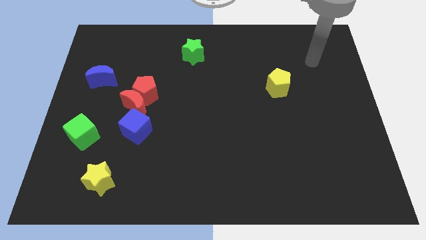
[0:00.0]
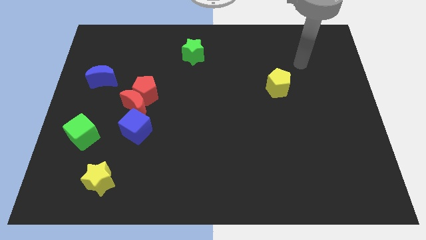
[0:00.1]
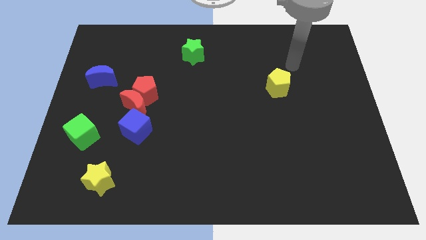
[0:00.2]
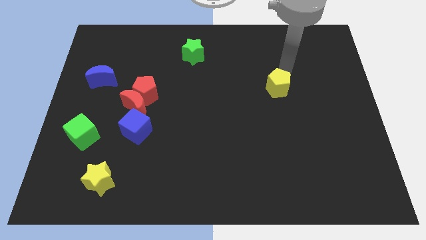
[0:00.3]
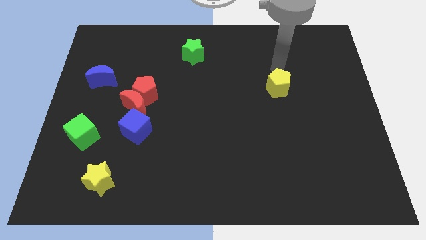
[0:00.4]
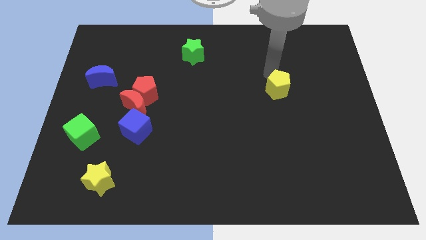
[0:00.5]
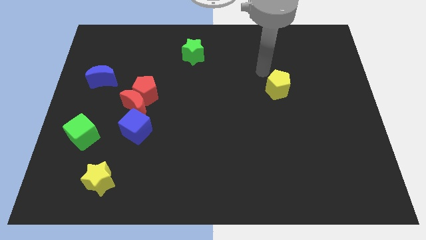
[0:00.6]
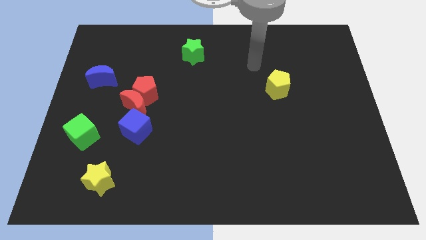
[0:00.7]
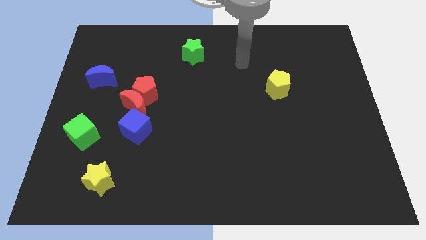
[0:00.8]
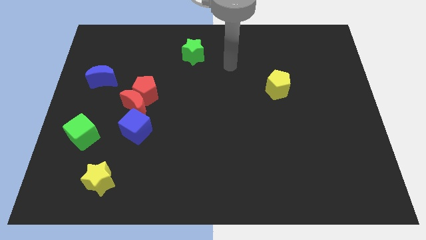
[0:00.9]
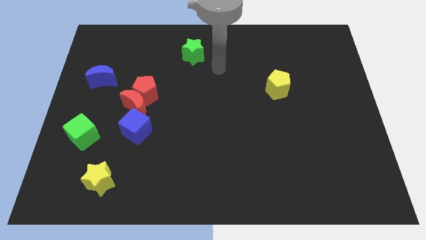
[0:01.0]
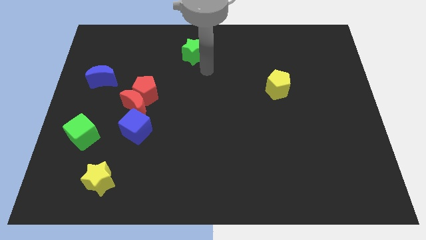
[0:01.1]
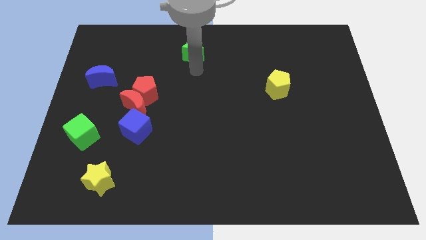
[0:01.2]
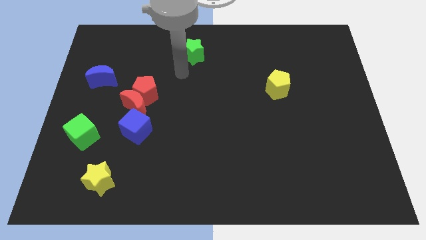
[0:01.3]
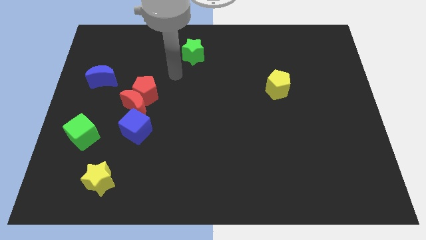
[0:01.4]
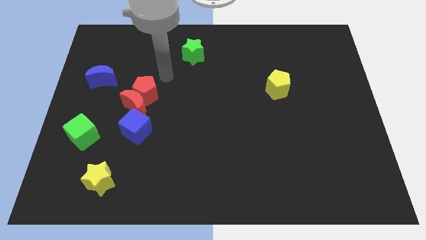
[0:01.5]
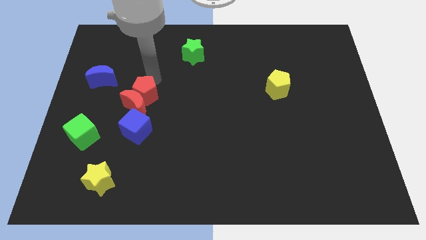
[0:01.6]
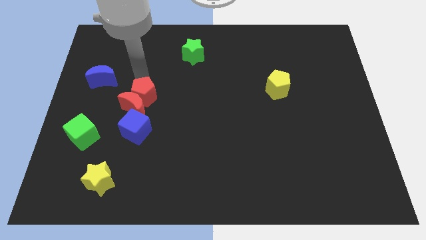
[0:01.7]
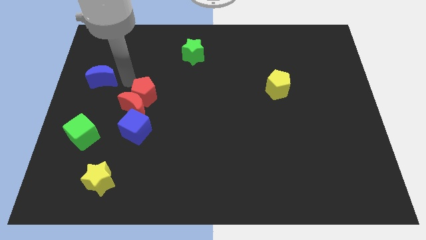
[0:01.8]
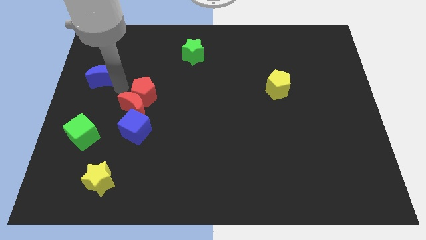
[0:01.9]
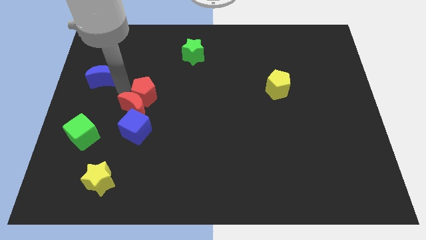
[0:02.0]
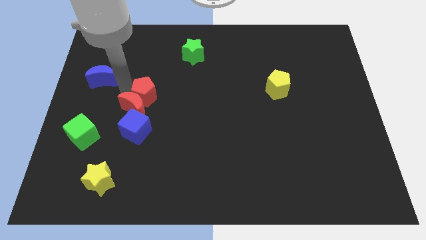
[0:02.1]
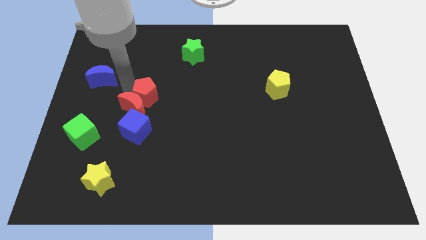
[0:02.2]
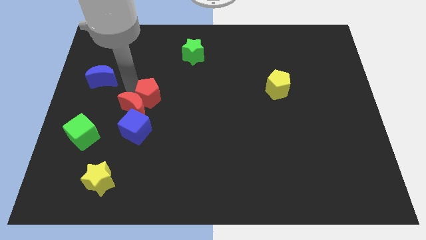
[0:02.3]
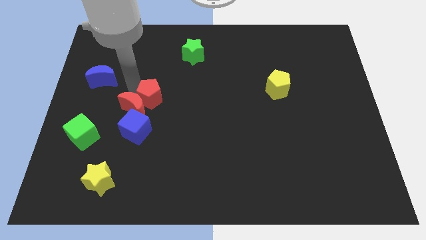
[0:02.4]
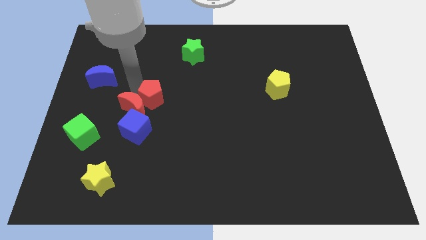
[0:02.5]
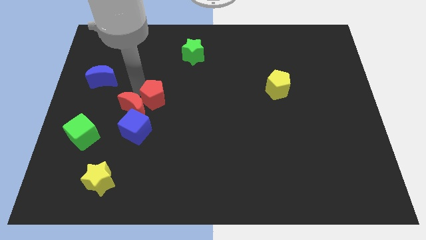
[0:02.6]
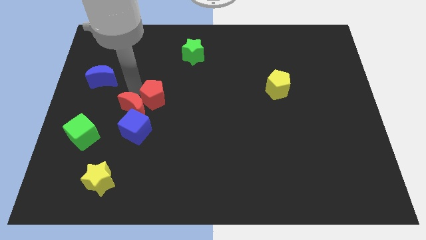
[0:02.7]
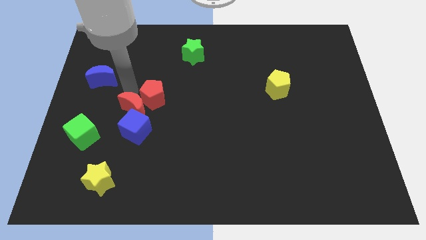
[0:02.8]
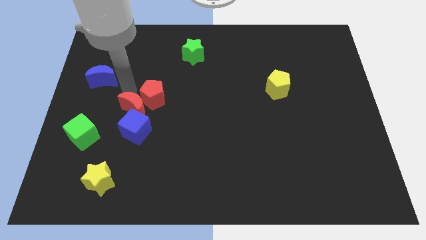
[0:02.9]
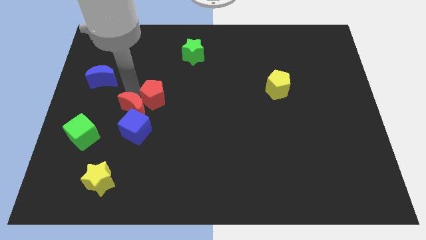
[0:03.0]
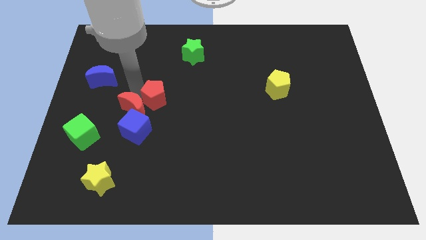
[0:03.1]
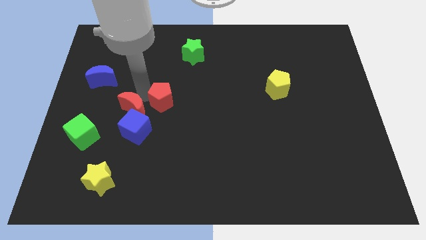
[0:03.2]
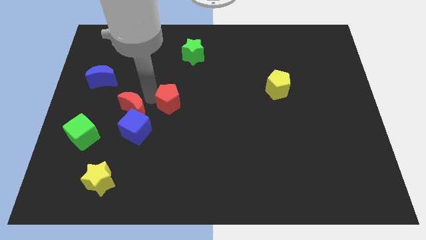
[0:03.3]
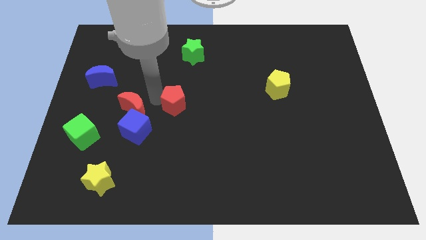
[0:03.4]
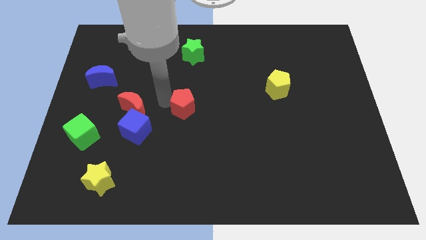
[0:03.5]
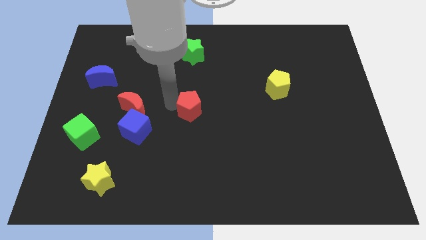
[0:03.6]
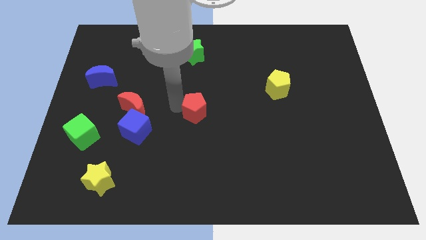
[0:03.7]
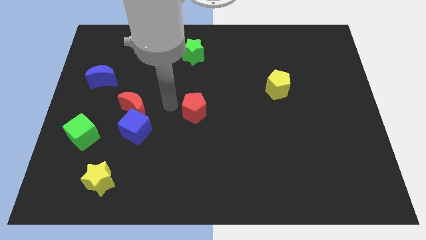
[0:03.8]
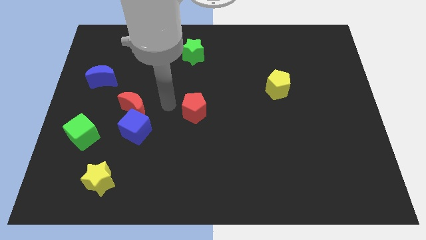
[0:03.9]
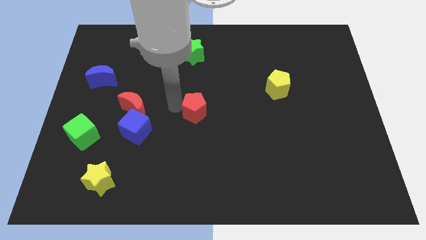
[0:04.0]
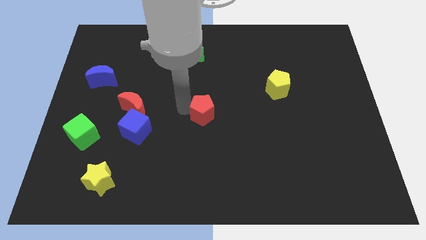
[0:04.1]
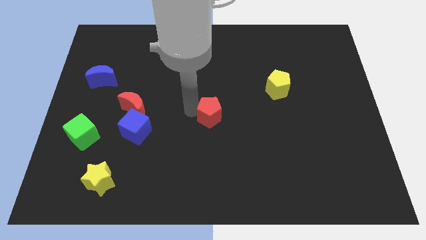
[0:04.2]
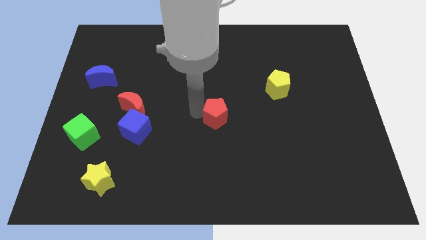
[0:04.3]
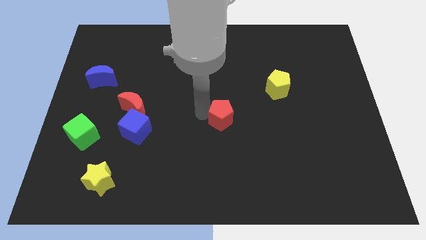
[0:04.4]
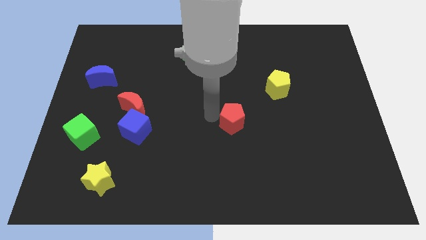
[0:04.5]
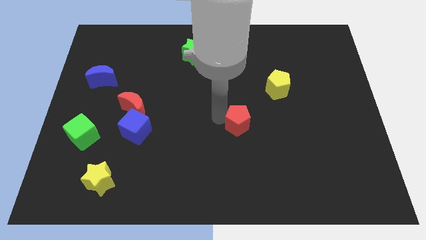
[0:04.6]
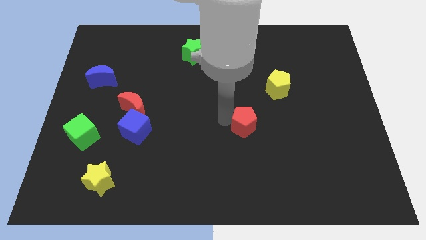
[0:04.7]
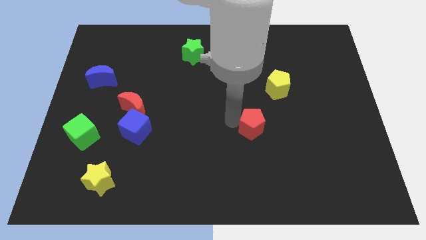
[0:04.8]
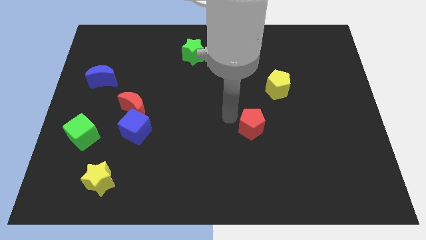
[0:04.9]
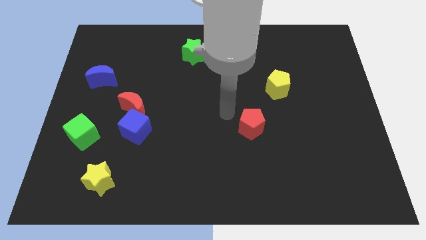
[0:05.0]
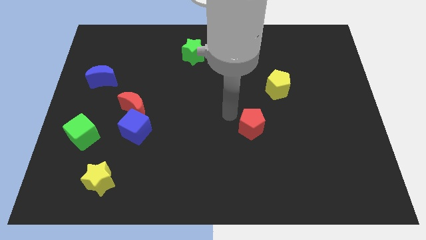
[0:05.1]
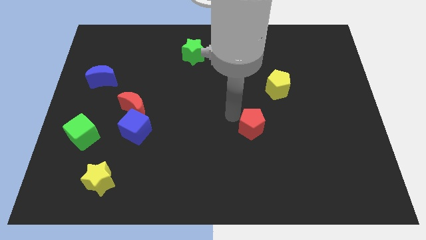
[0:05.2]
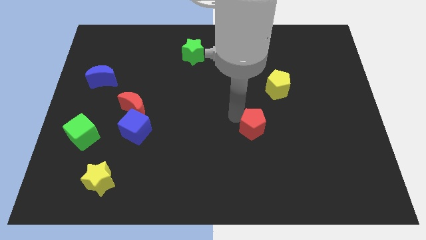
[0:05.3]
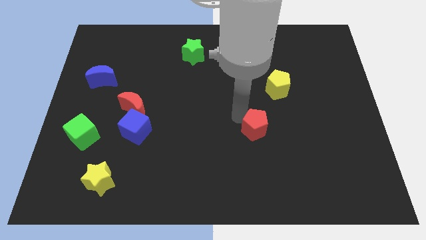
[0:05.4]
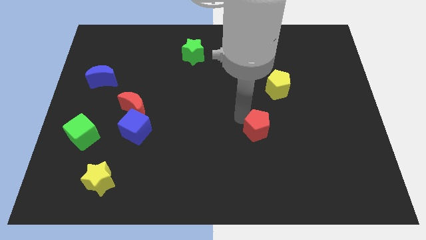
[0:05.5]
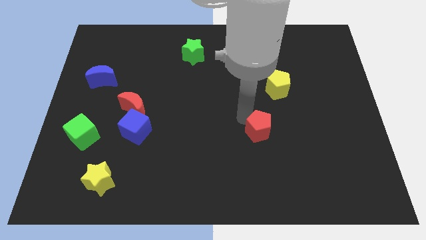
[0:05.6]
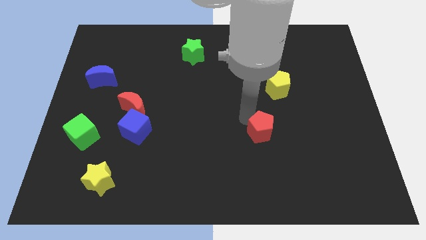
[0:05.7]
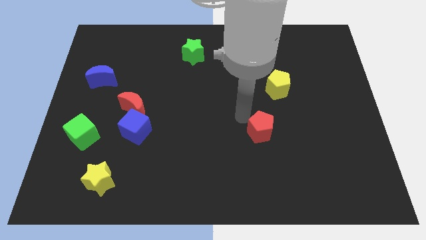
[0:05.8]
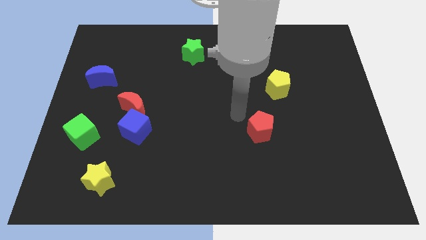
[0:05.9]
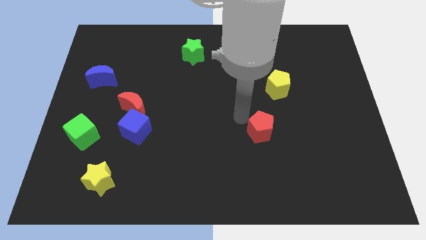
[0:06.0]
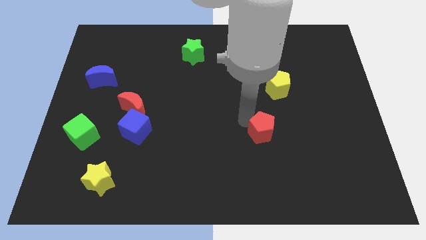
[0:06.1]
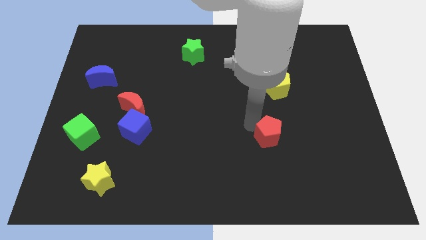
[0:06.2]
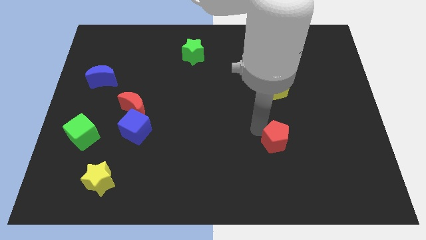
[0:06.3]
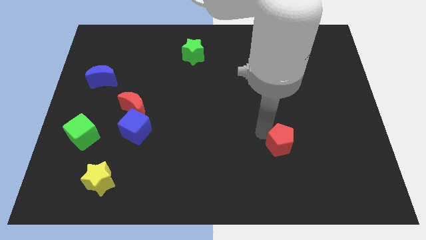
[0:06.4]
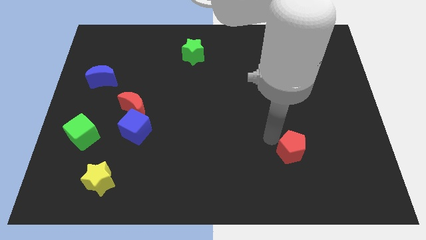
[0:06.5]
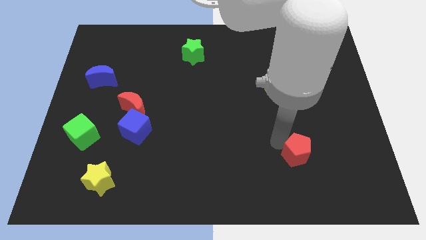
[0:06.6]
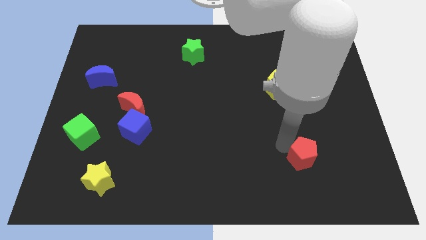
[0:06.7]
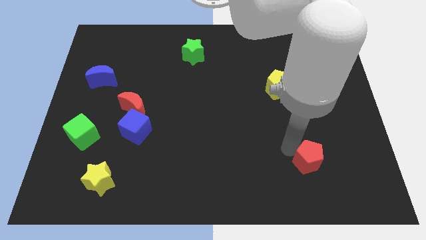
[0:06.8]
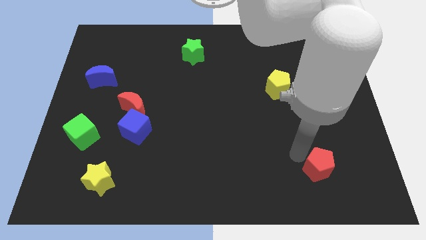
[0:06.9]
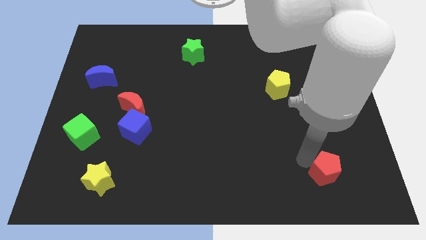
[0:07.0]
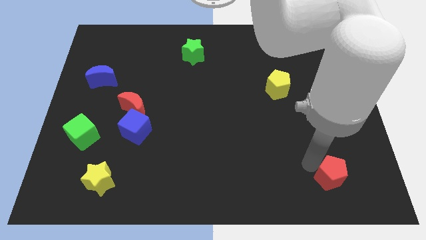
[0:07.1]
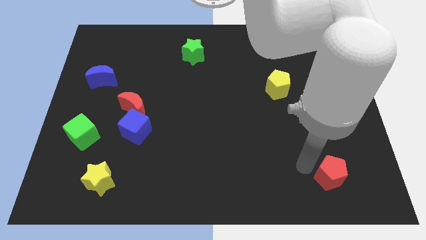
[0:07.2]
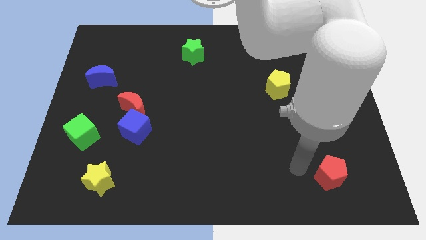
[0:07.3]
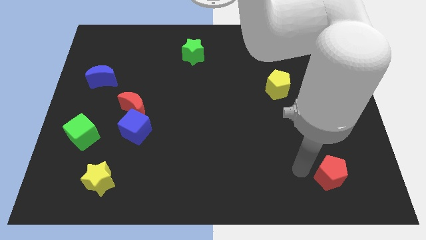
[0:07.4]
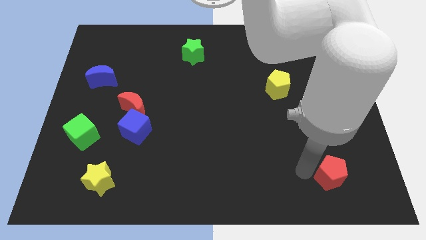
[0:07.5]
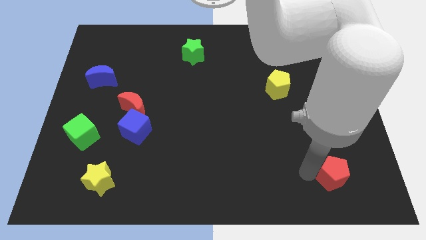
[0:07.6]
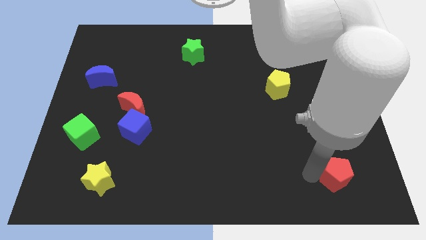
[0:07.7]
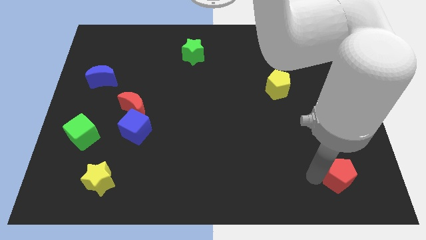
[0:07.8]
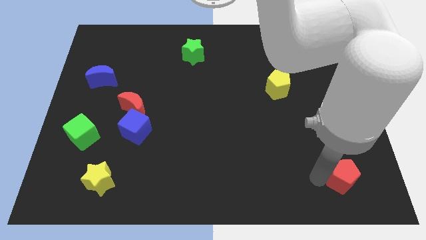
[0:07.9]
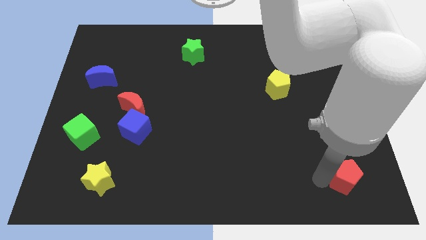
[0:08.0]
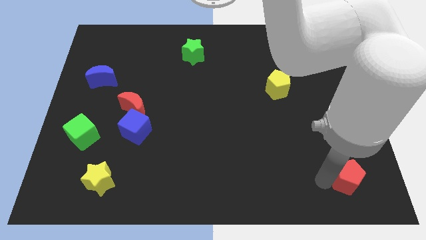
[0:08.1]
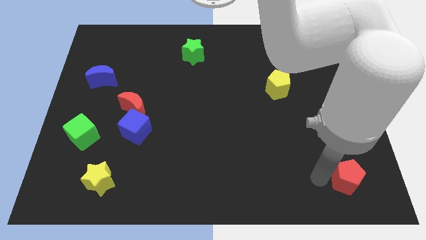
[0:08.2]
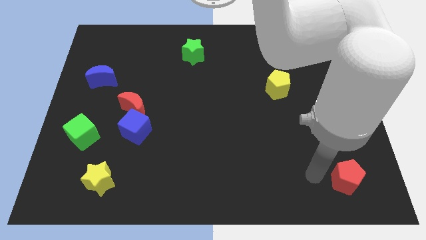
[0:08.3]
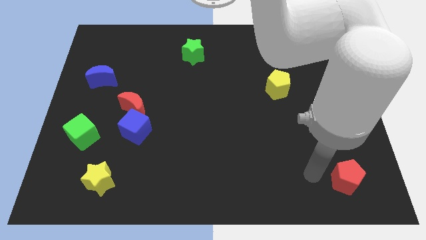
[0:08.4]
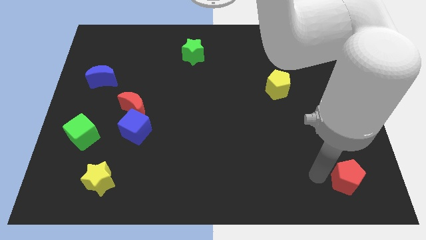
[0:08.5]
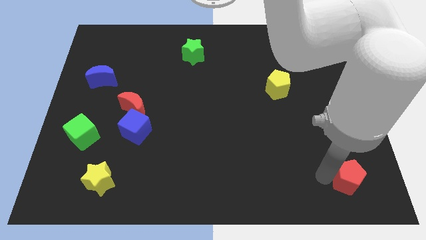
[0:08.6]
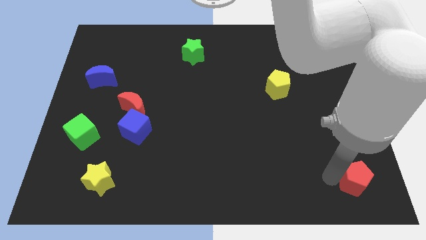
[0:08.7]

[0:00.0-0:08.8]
move the red pentagon to the bottom right of the board
